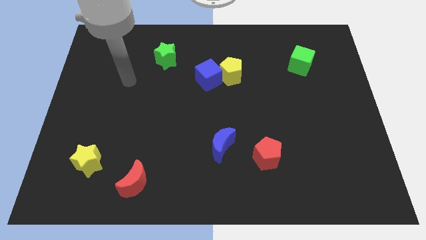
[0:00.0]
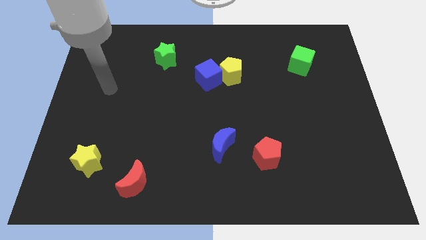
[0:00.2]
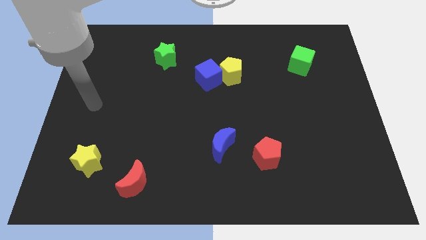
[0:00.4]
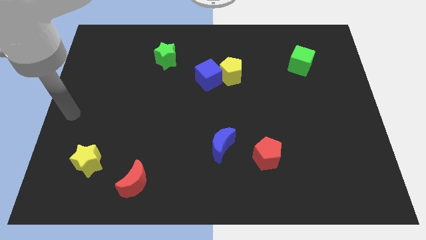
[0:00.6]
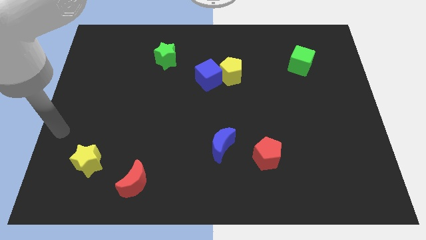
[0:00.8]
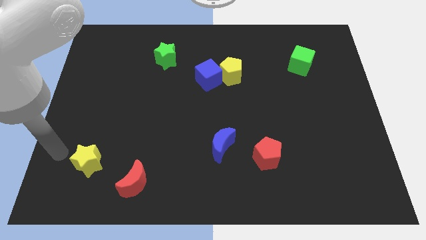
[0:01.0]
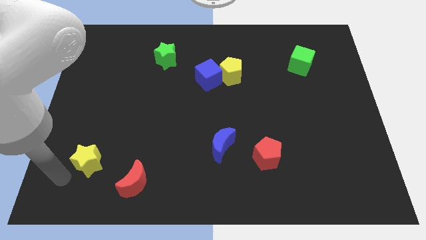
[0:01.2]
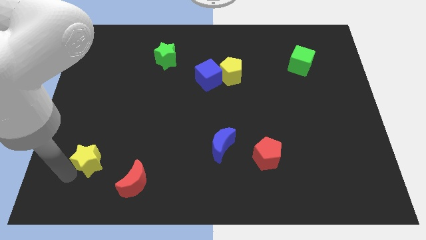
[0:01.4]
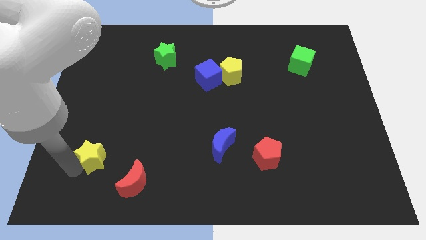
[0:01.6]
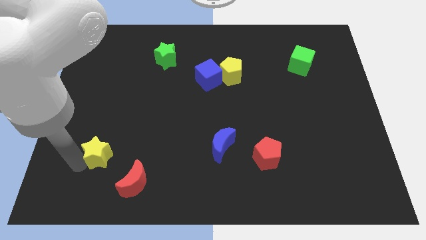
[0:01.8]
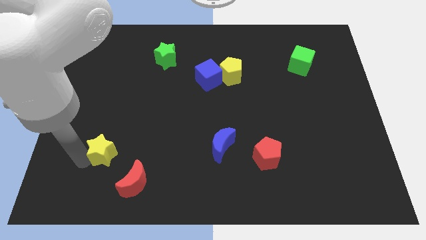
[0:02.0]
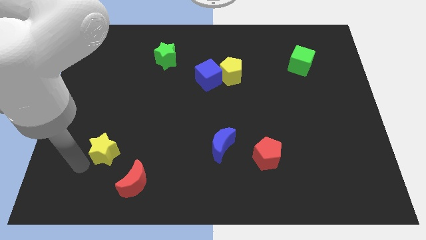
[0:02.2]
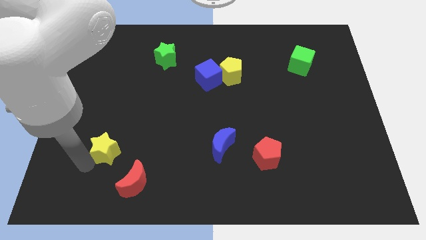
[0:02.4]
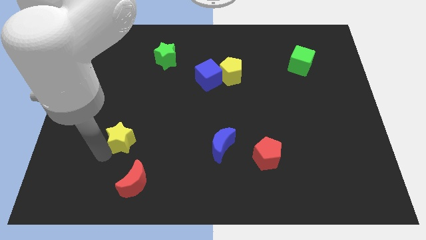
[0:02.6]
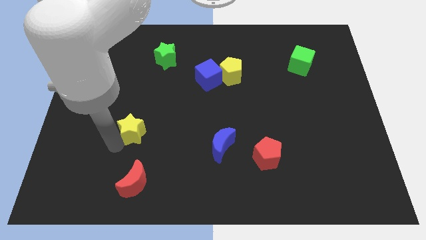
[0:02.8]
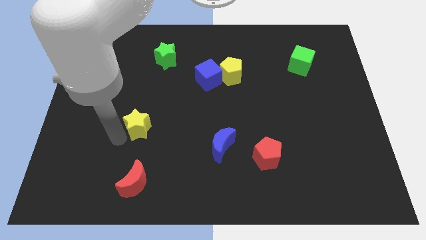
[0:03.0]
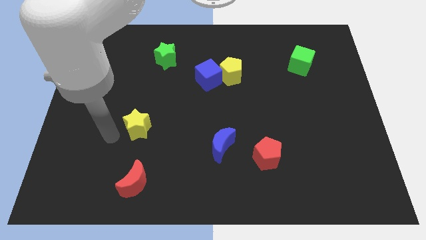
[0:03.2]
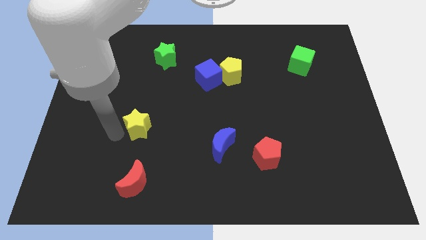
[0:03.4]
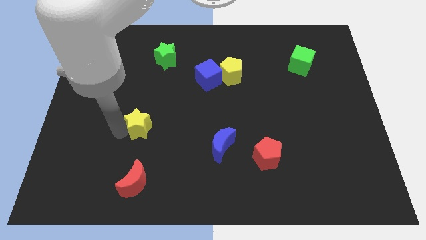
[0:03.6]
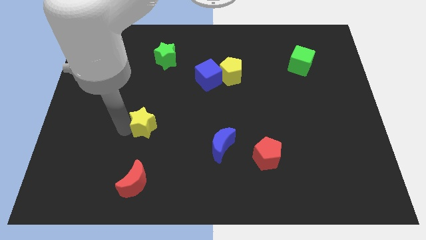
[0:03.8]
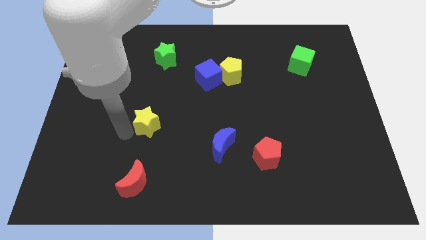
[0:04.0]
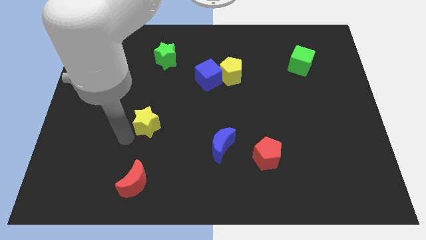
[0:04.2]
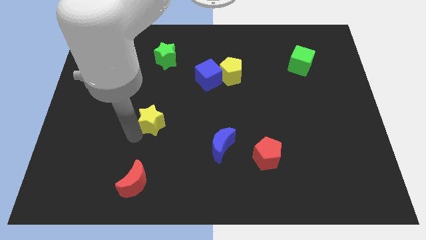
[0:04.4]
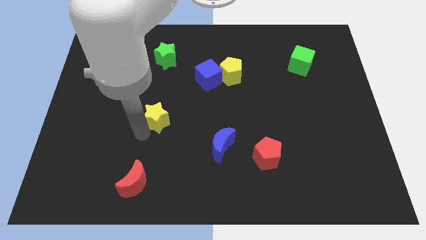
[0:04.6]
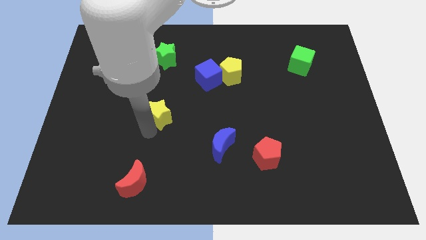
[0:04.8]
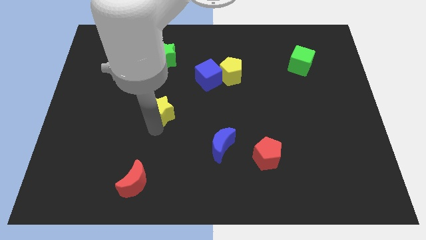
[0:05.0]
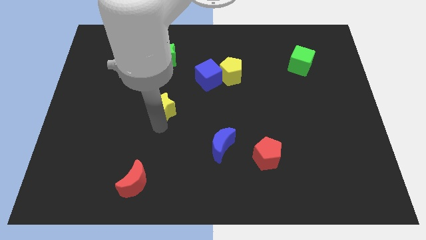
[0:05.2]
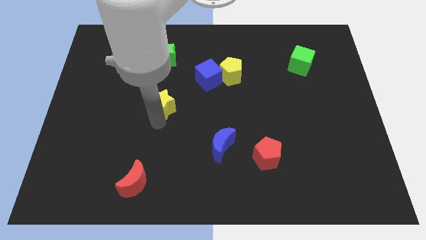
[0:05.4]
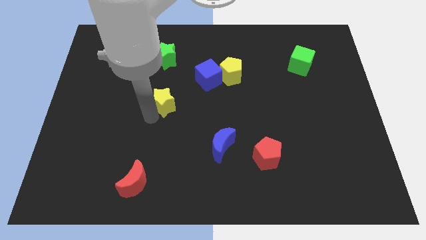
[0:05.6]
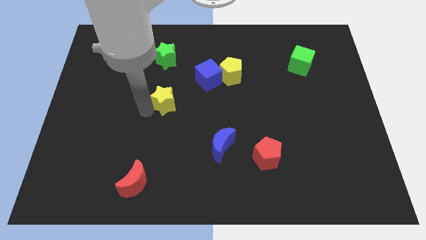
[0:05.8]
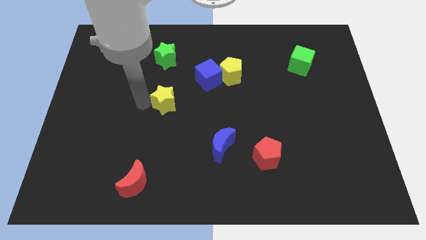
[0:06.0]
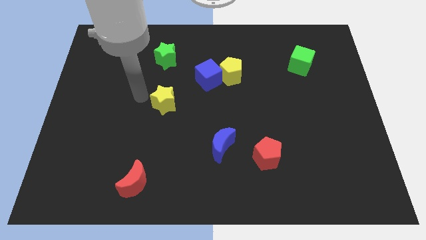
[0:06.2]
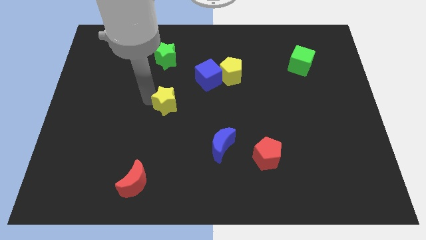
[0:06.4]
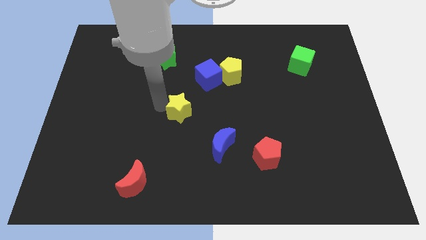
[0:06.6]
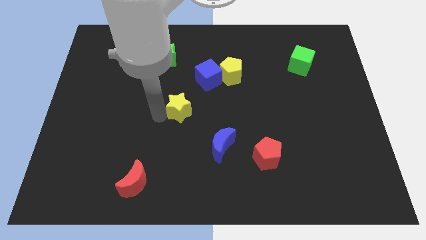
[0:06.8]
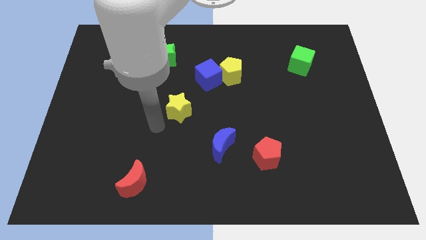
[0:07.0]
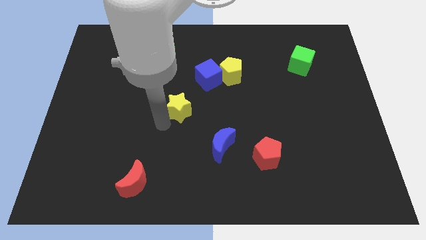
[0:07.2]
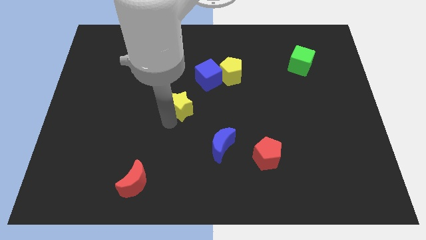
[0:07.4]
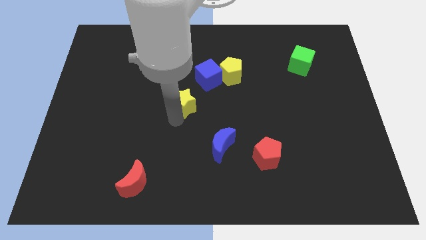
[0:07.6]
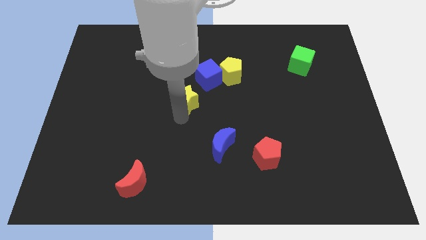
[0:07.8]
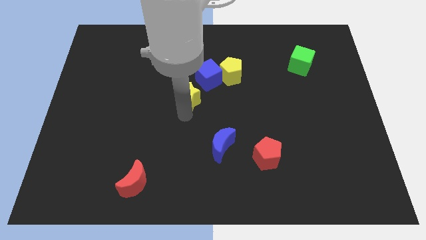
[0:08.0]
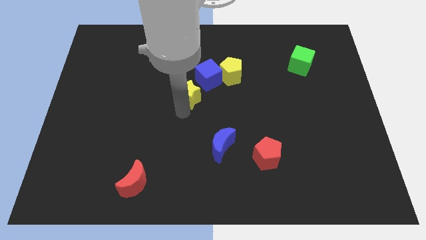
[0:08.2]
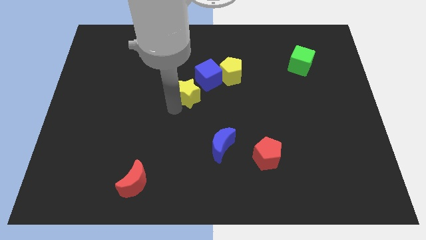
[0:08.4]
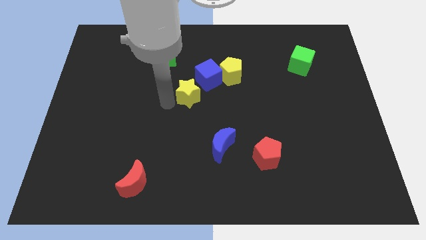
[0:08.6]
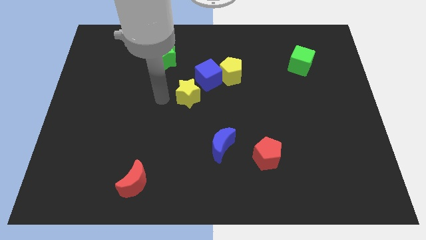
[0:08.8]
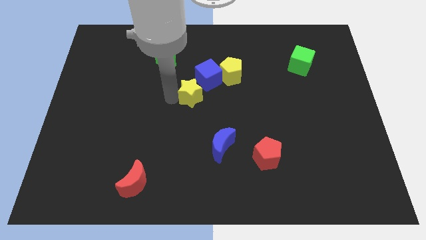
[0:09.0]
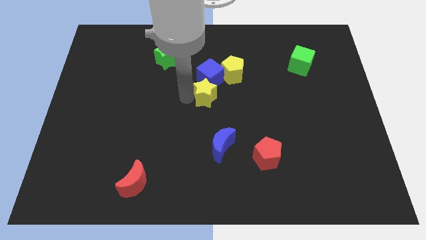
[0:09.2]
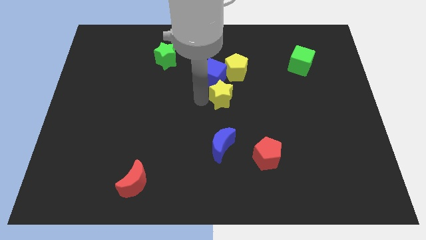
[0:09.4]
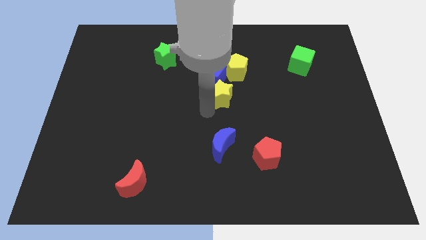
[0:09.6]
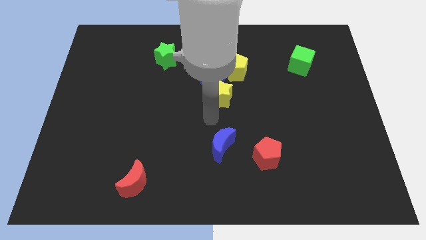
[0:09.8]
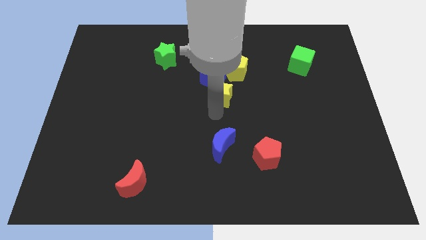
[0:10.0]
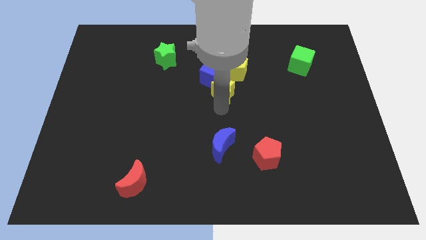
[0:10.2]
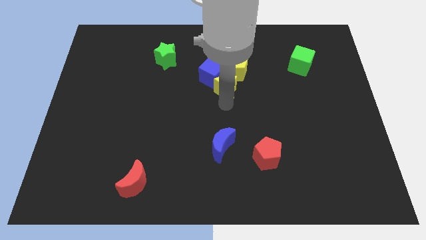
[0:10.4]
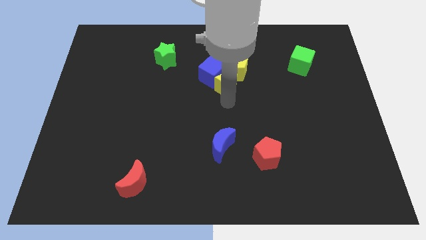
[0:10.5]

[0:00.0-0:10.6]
slide the yellow star to the yellow pentagon

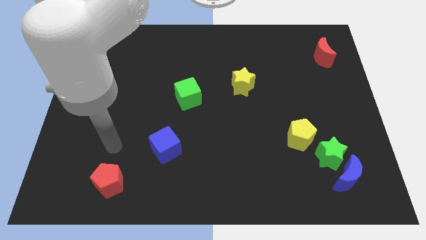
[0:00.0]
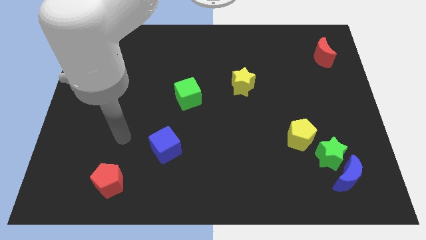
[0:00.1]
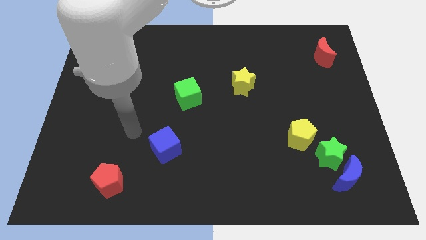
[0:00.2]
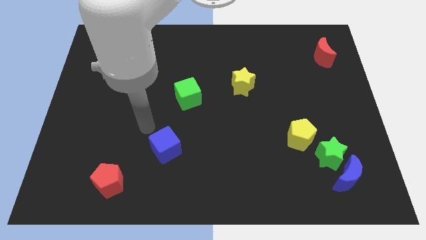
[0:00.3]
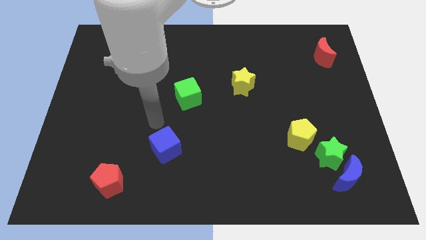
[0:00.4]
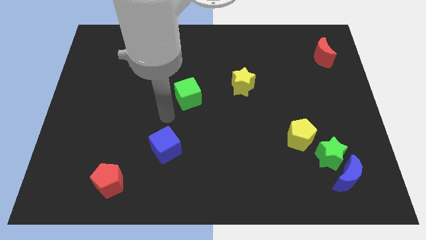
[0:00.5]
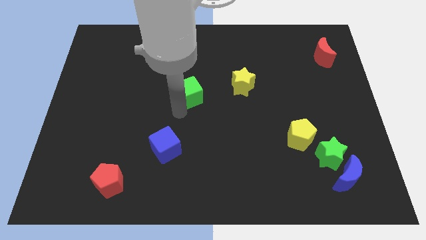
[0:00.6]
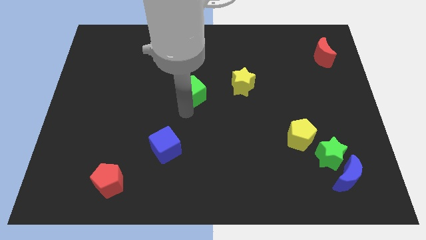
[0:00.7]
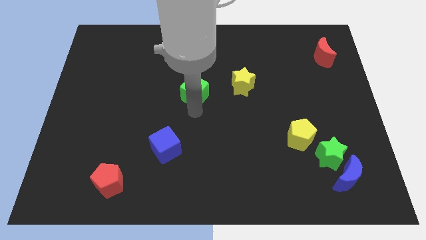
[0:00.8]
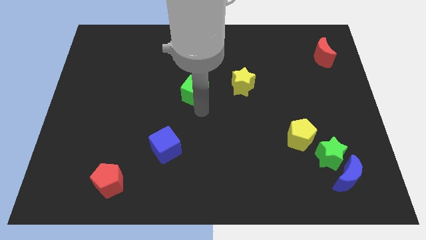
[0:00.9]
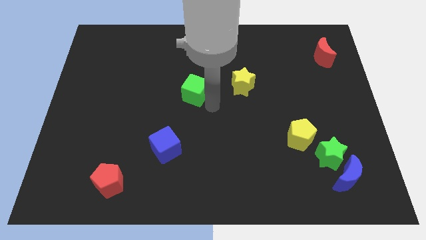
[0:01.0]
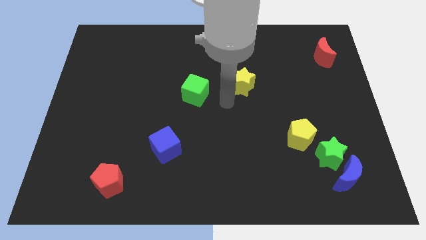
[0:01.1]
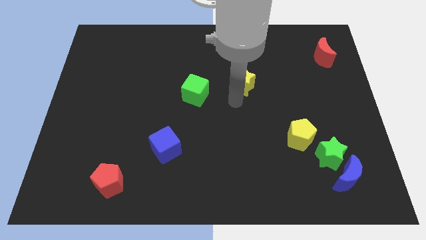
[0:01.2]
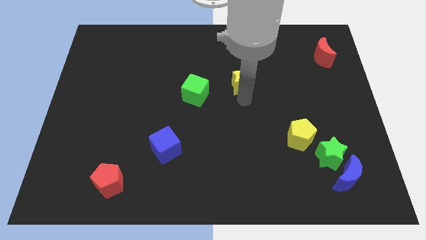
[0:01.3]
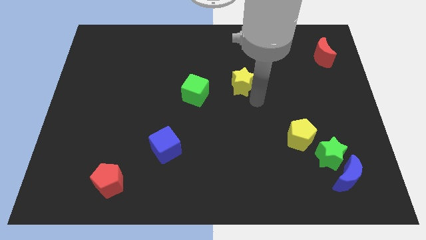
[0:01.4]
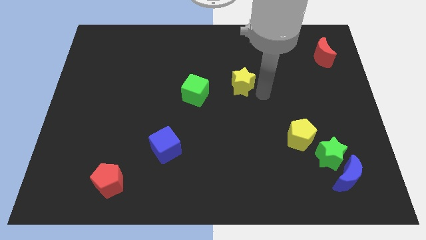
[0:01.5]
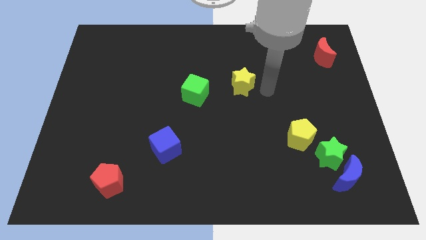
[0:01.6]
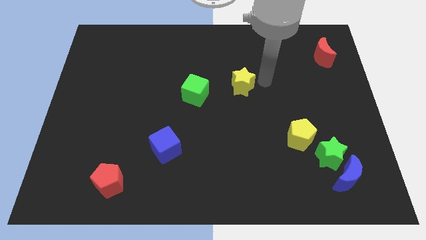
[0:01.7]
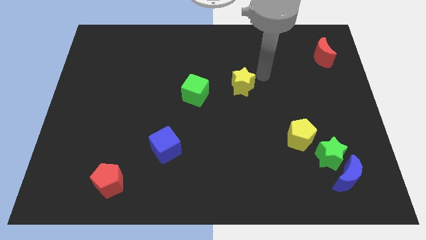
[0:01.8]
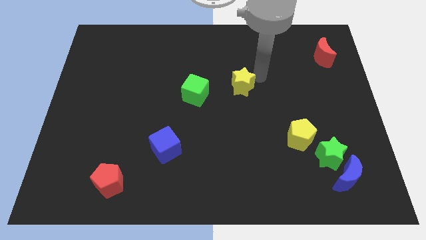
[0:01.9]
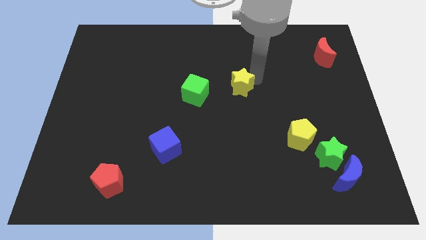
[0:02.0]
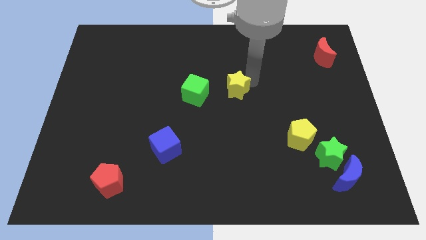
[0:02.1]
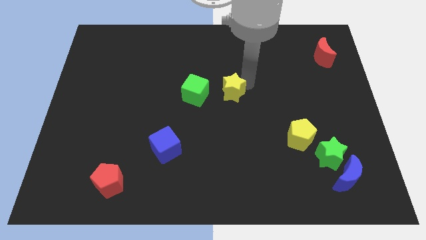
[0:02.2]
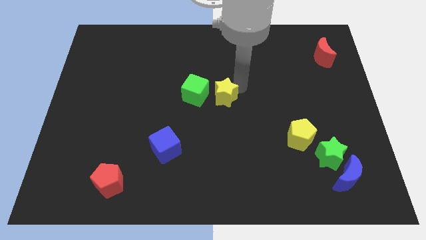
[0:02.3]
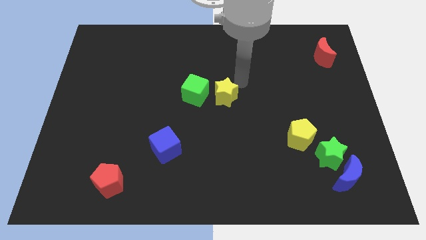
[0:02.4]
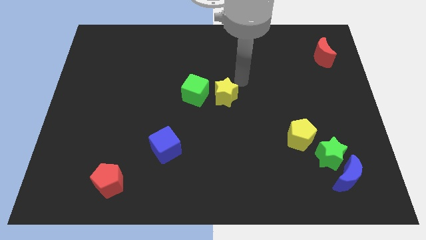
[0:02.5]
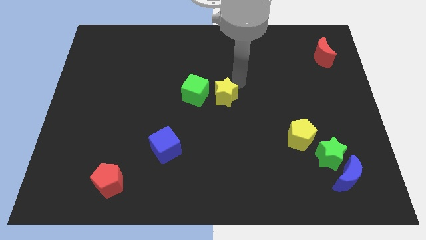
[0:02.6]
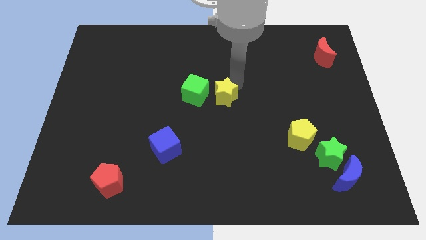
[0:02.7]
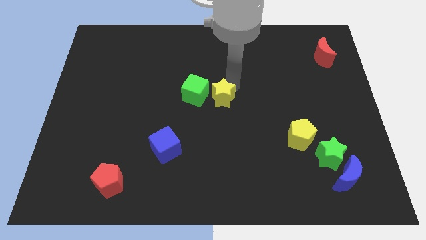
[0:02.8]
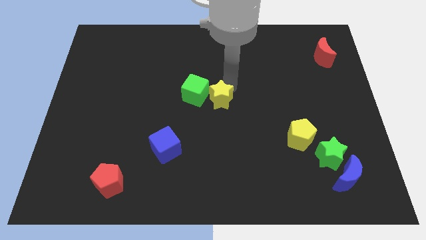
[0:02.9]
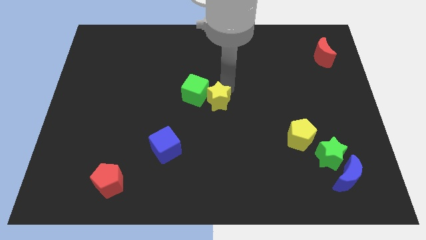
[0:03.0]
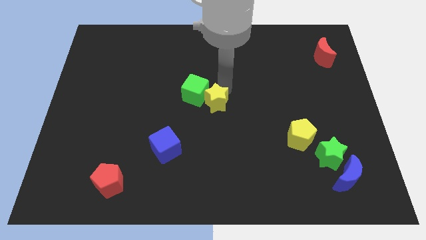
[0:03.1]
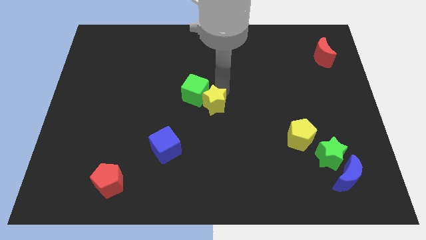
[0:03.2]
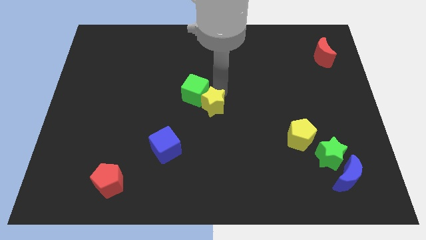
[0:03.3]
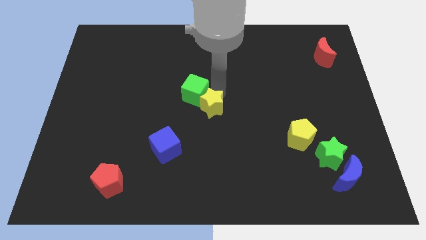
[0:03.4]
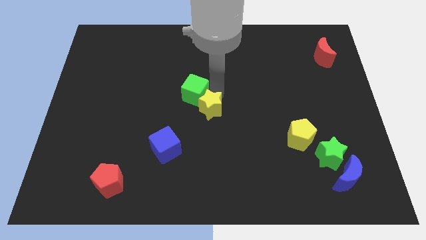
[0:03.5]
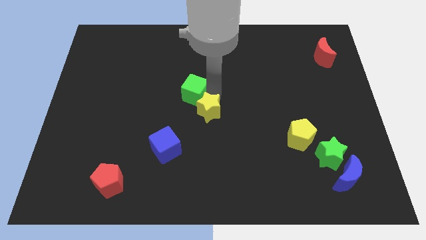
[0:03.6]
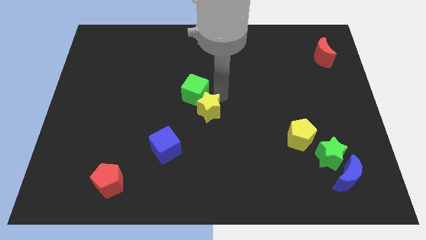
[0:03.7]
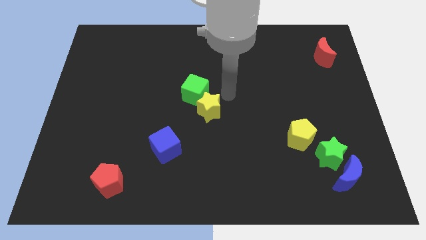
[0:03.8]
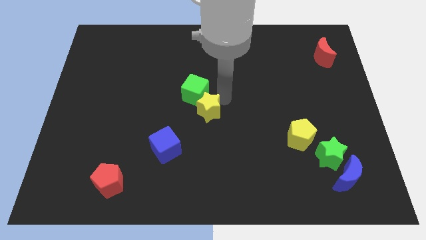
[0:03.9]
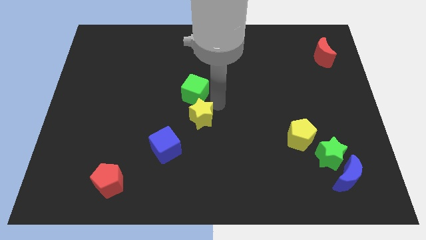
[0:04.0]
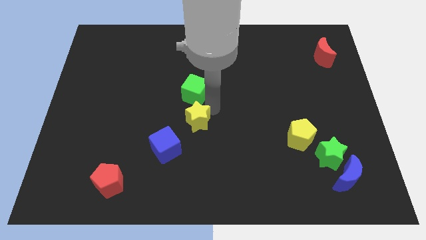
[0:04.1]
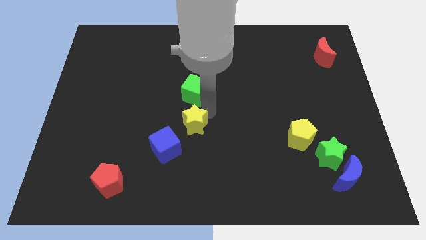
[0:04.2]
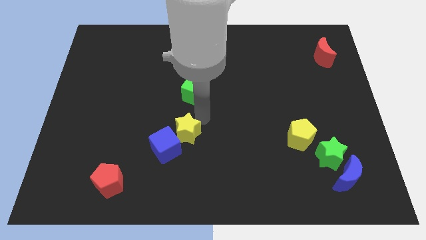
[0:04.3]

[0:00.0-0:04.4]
slide the yellow star next to the blue cube
